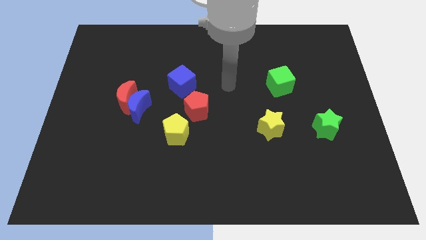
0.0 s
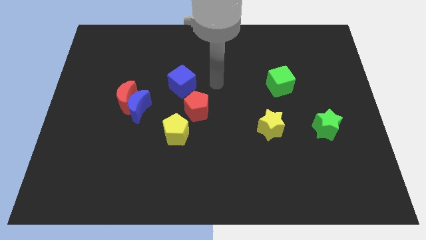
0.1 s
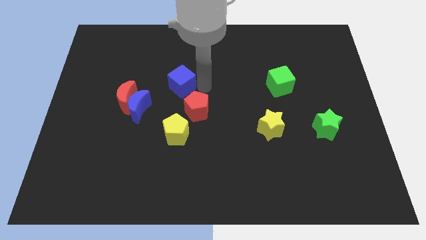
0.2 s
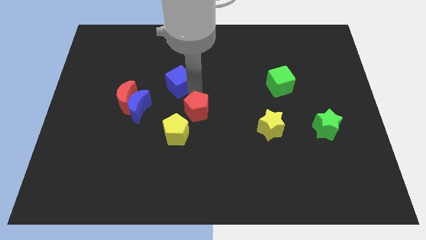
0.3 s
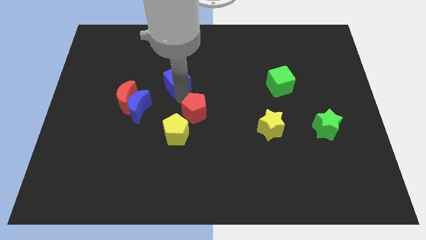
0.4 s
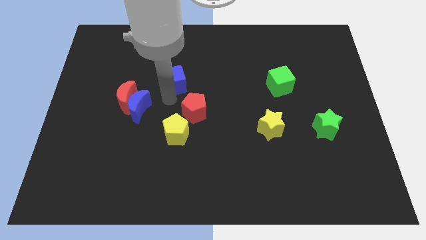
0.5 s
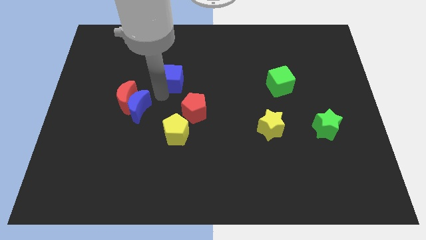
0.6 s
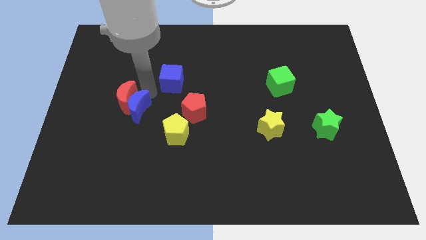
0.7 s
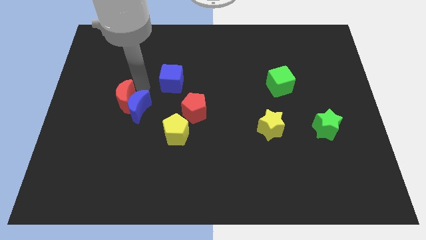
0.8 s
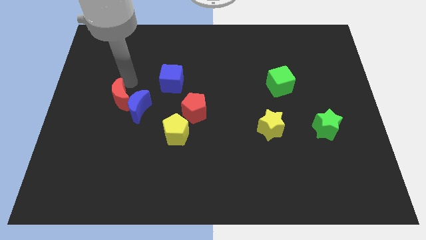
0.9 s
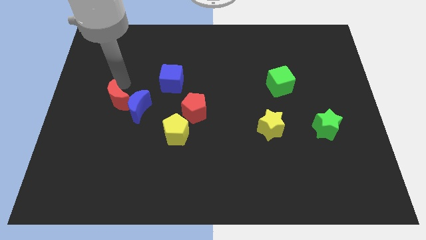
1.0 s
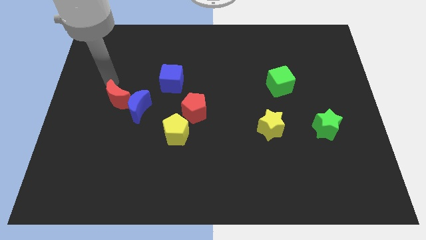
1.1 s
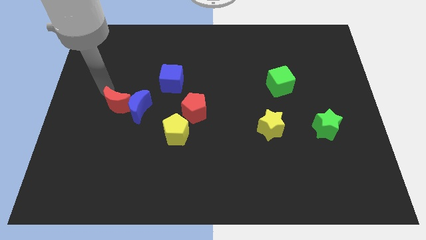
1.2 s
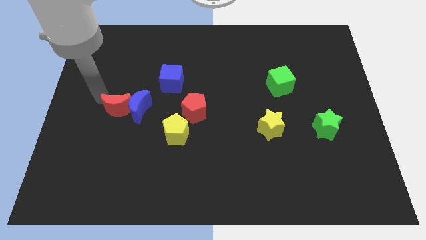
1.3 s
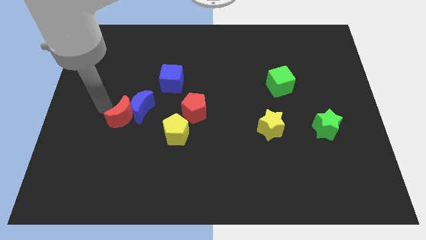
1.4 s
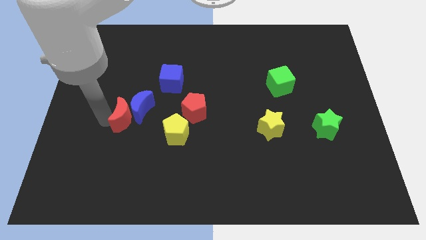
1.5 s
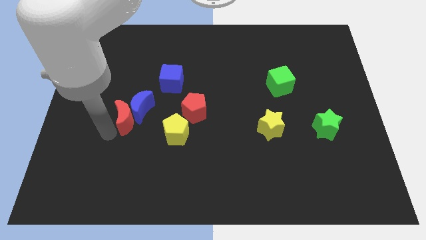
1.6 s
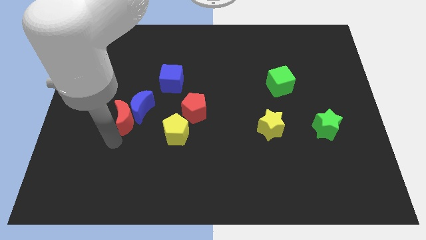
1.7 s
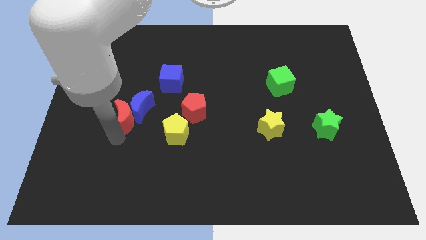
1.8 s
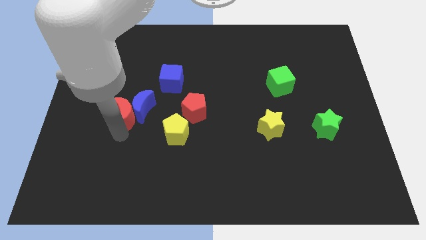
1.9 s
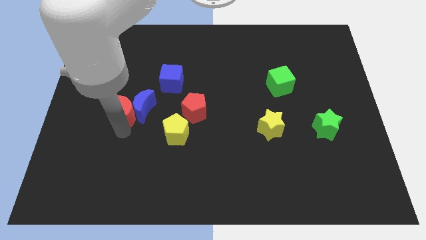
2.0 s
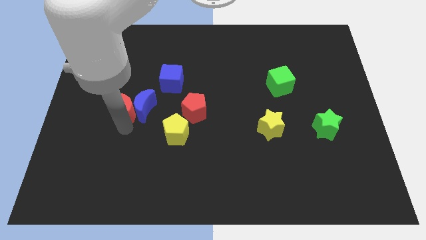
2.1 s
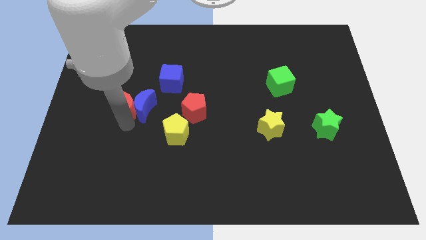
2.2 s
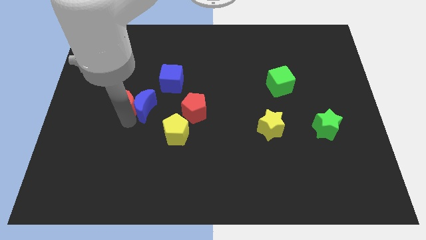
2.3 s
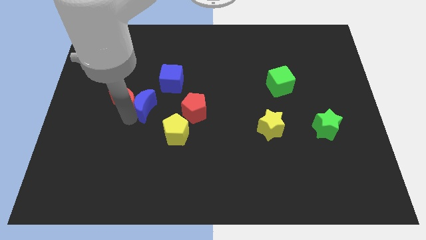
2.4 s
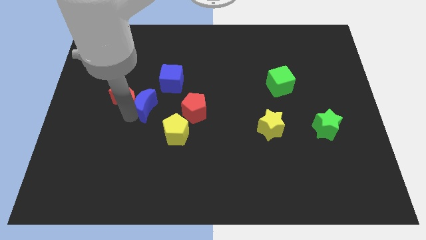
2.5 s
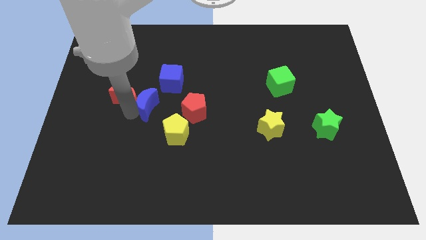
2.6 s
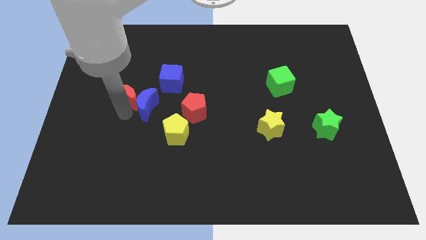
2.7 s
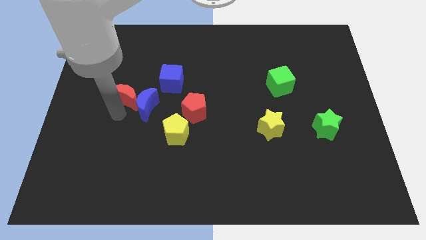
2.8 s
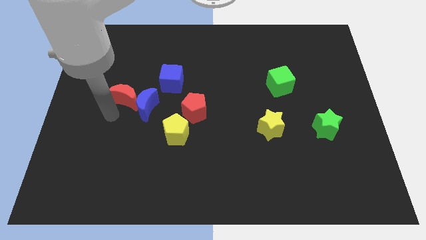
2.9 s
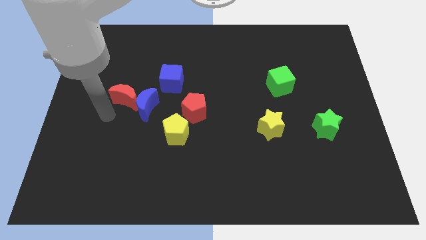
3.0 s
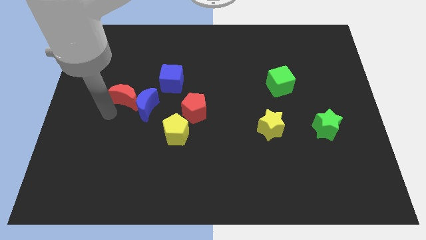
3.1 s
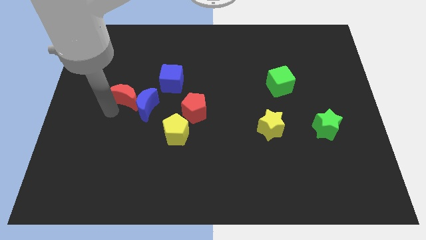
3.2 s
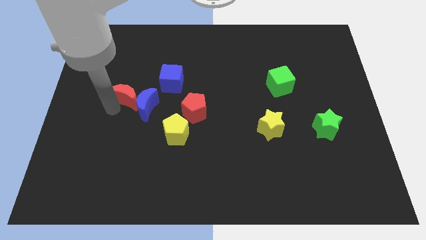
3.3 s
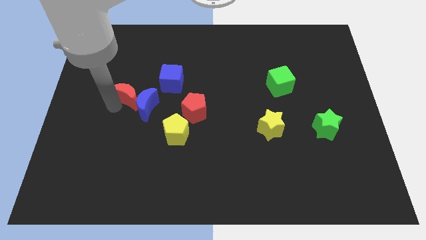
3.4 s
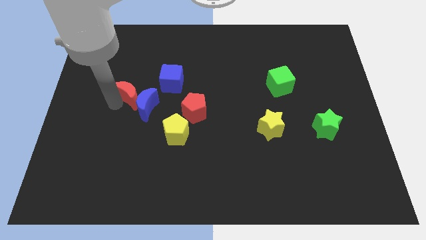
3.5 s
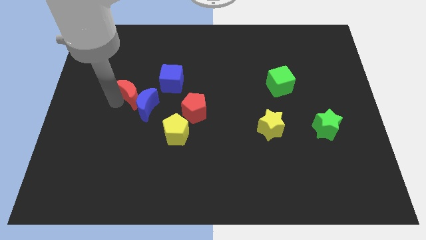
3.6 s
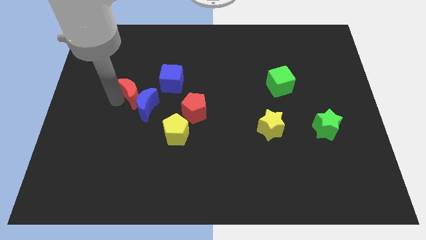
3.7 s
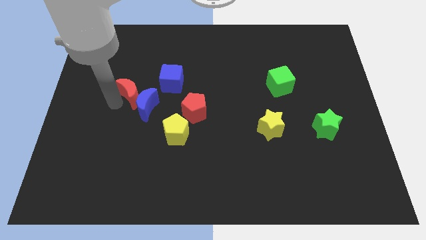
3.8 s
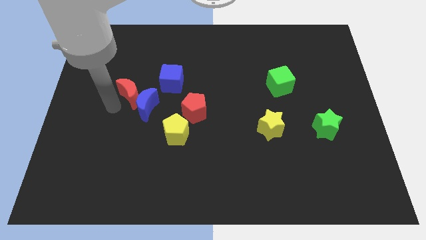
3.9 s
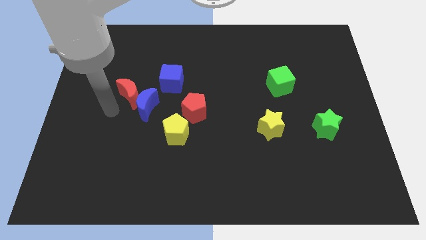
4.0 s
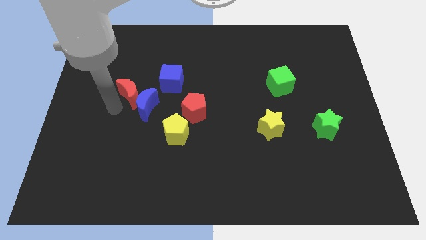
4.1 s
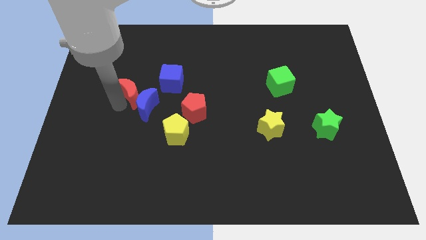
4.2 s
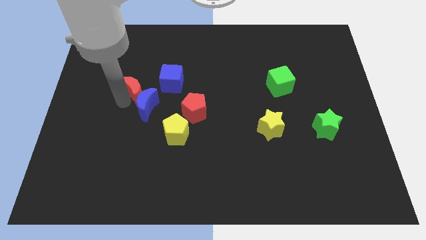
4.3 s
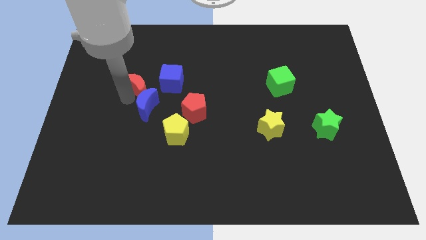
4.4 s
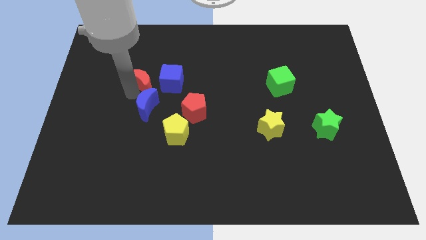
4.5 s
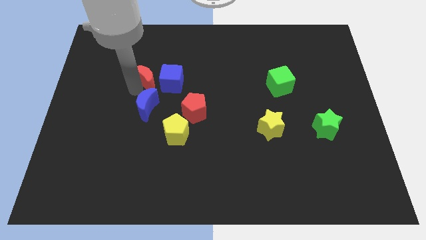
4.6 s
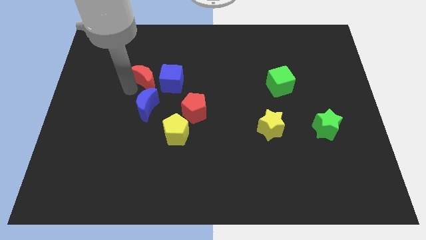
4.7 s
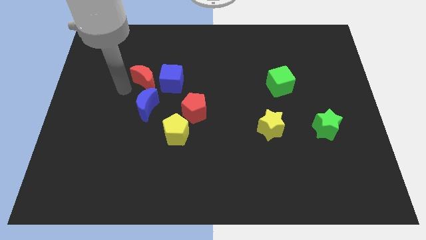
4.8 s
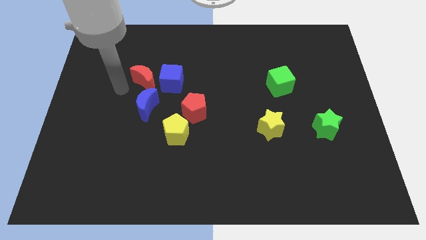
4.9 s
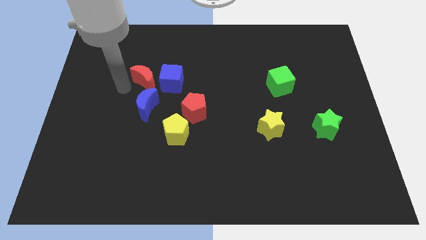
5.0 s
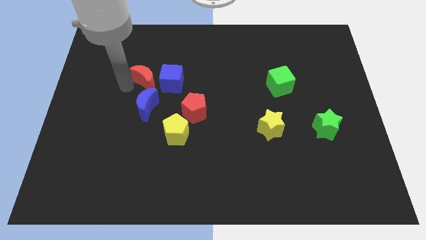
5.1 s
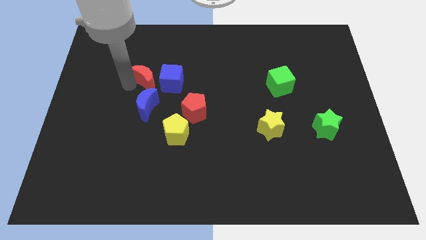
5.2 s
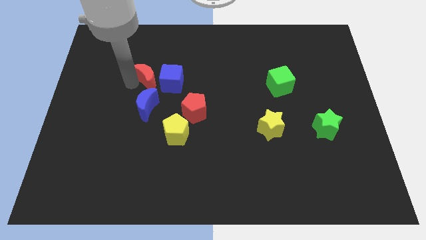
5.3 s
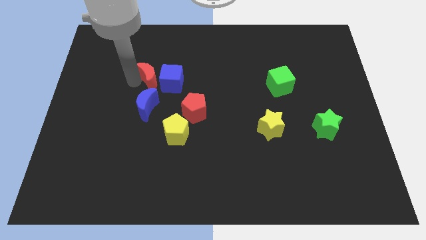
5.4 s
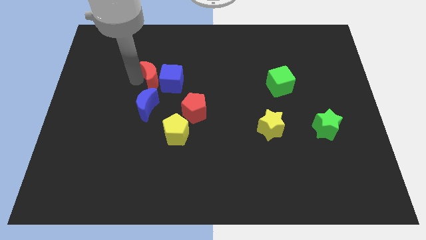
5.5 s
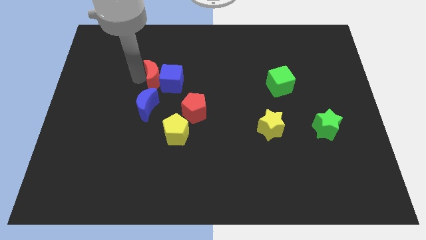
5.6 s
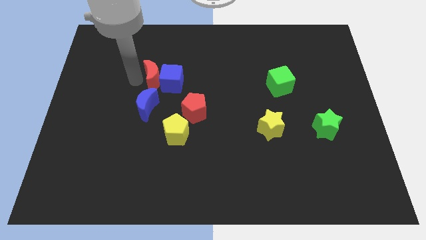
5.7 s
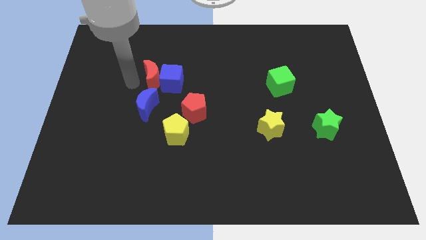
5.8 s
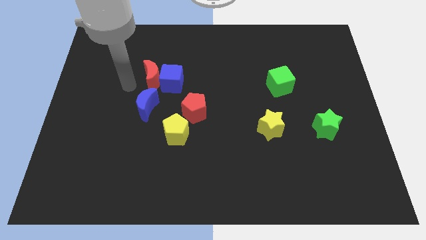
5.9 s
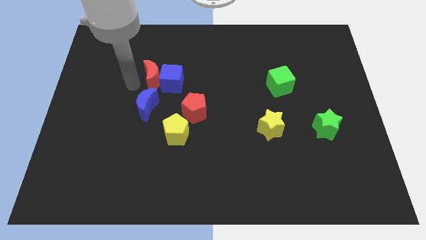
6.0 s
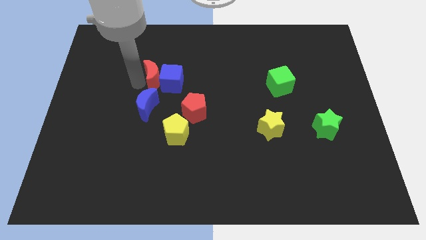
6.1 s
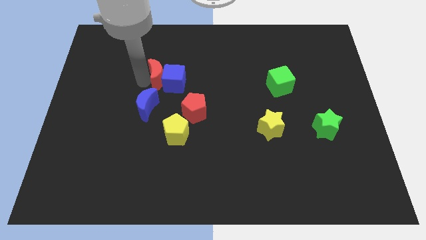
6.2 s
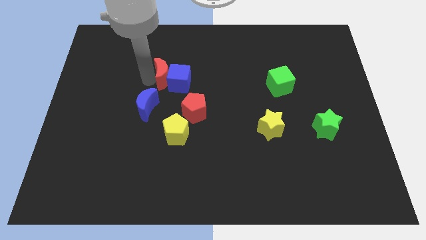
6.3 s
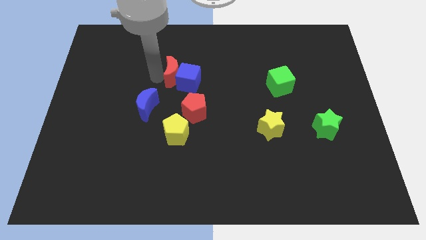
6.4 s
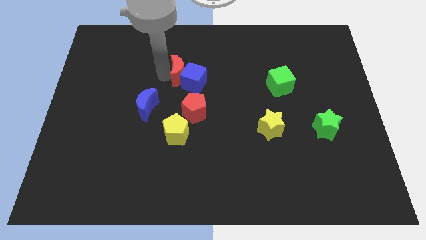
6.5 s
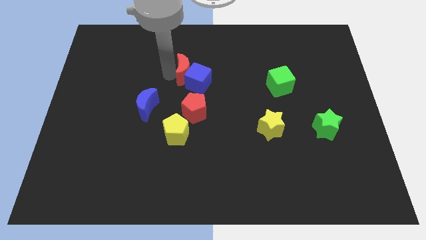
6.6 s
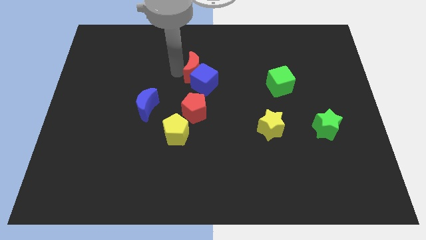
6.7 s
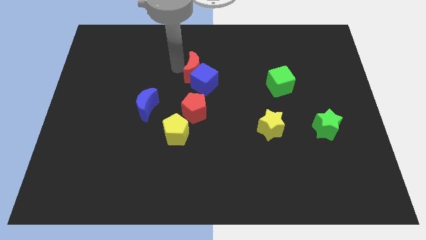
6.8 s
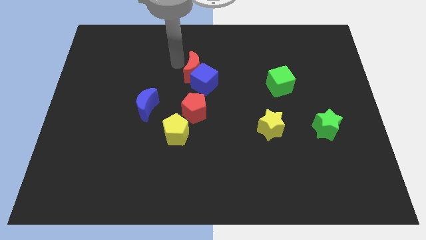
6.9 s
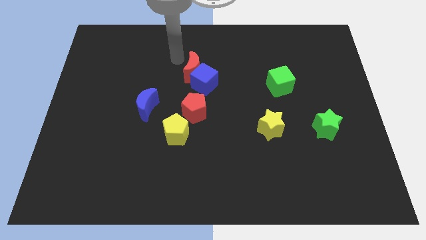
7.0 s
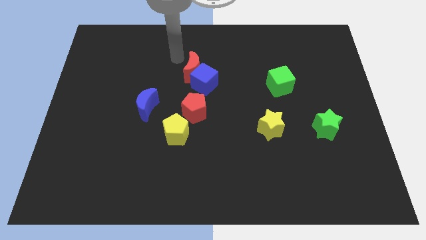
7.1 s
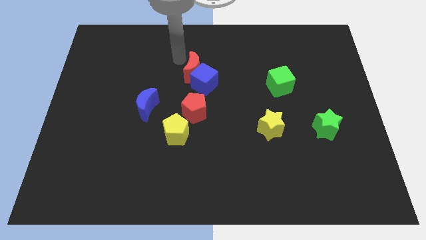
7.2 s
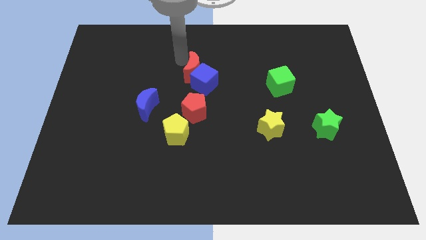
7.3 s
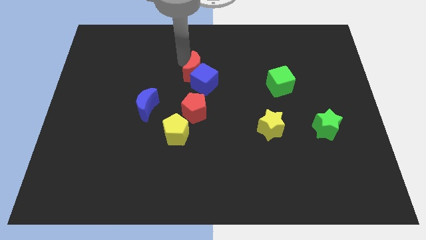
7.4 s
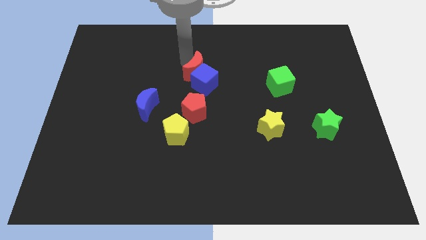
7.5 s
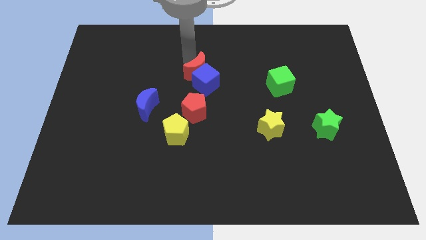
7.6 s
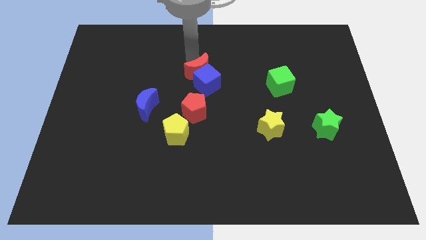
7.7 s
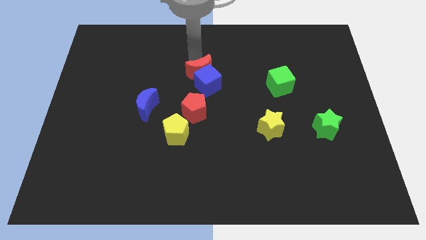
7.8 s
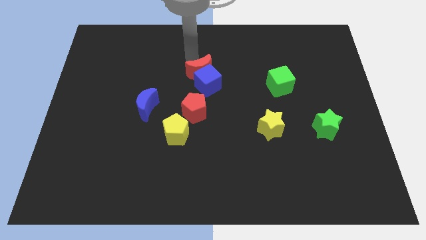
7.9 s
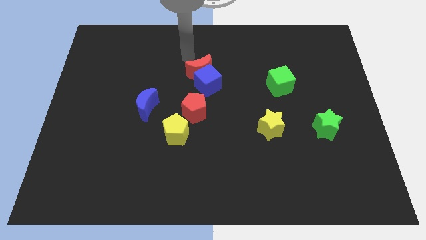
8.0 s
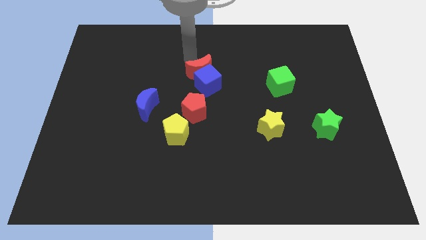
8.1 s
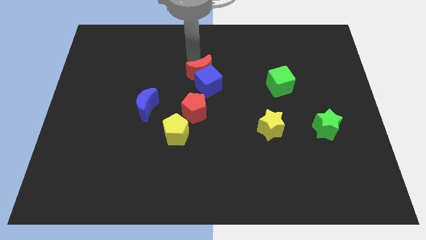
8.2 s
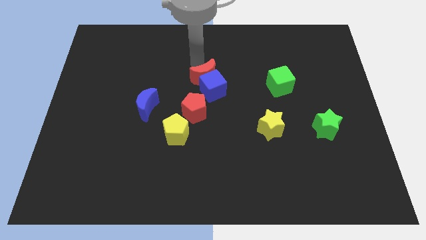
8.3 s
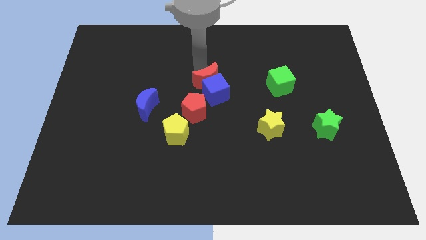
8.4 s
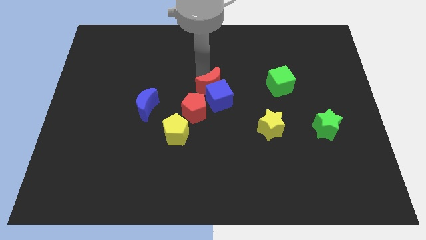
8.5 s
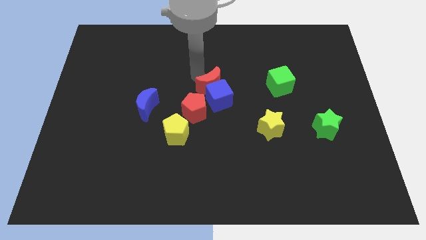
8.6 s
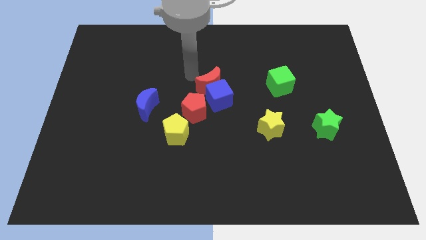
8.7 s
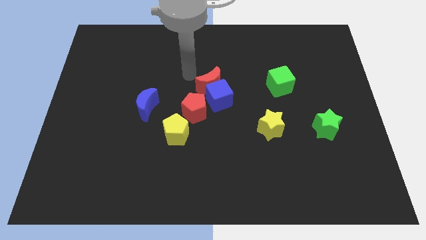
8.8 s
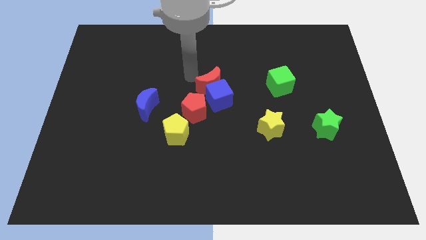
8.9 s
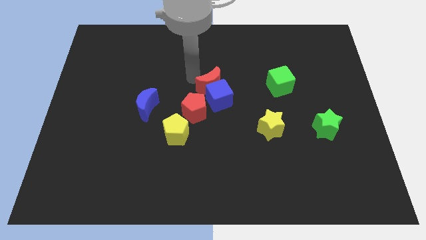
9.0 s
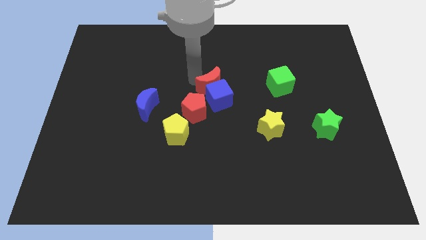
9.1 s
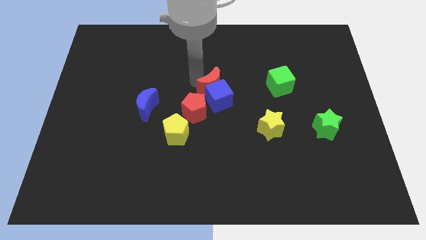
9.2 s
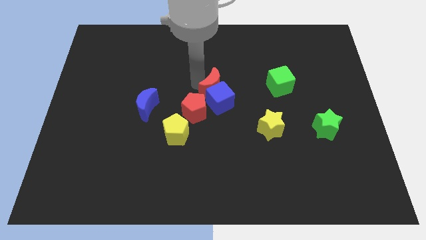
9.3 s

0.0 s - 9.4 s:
slide the red moon right
